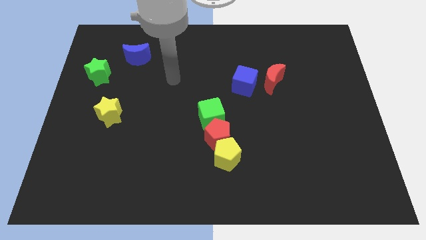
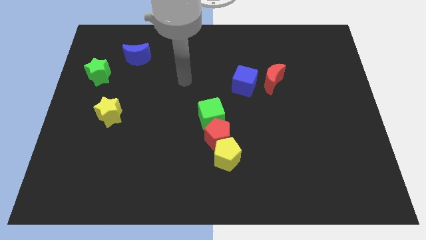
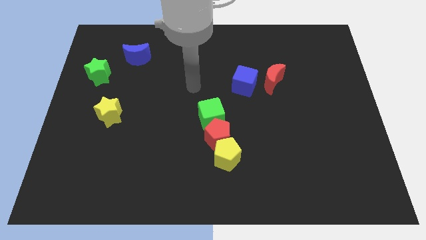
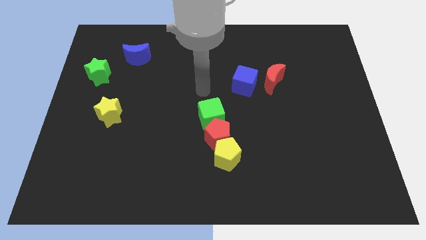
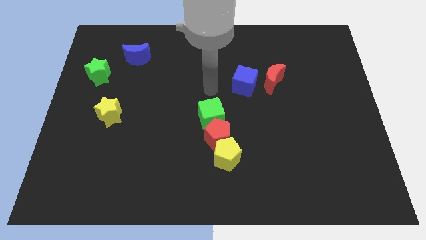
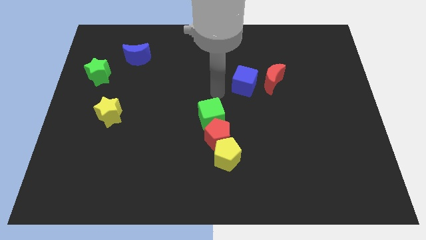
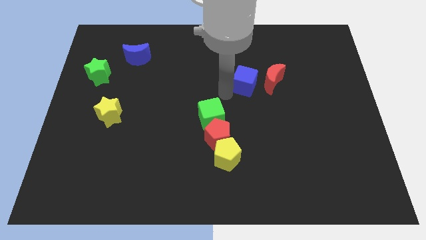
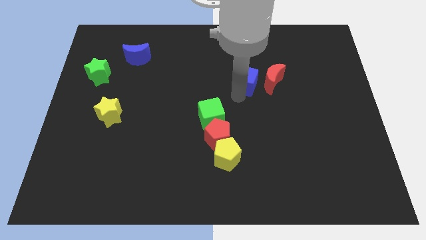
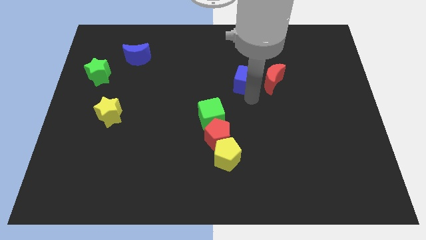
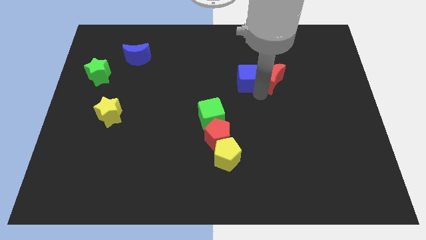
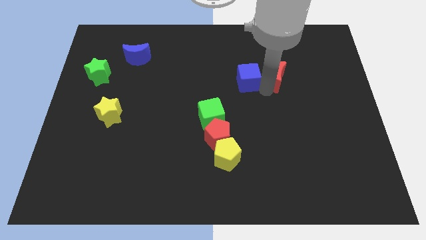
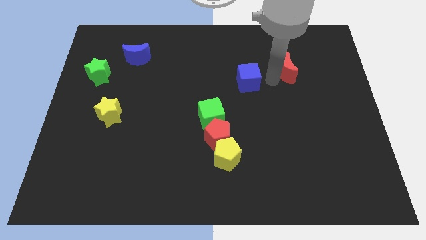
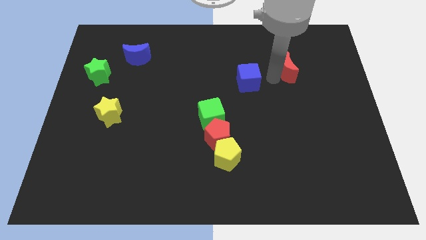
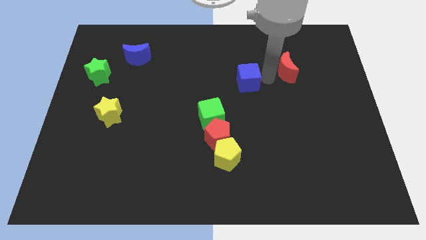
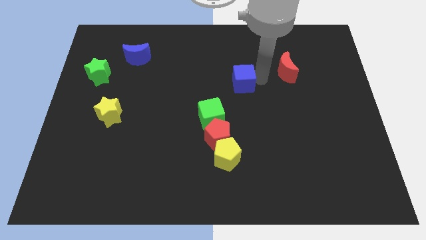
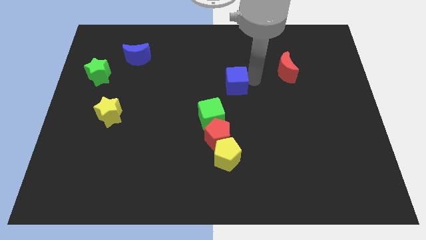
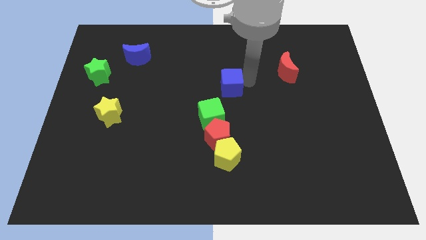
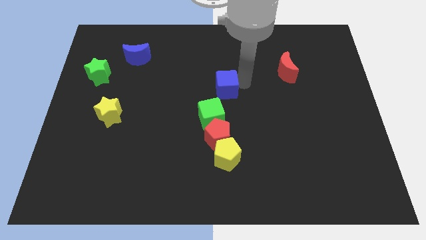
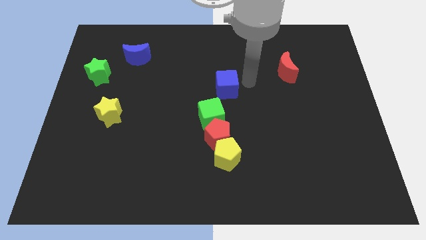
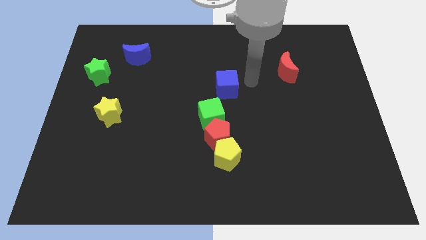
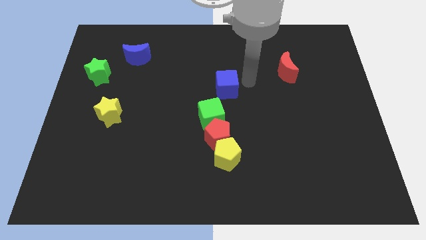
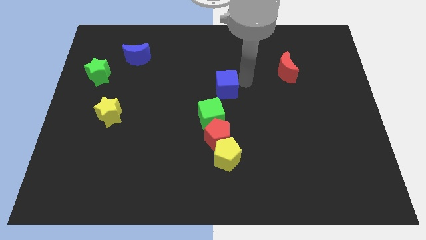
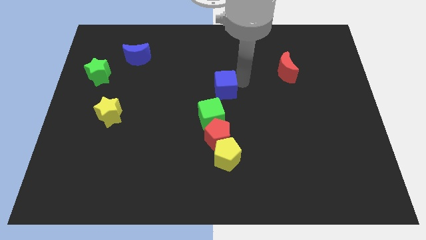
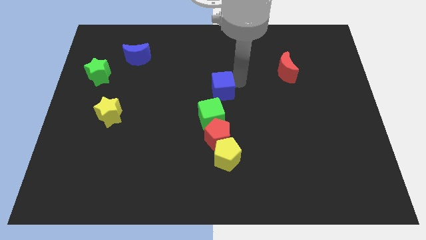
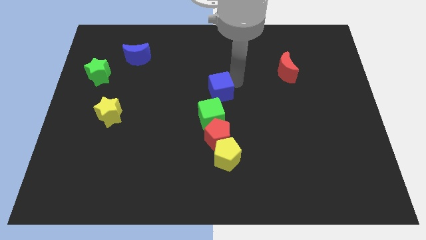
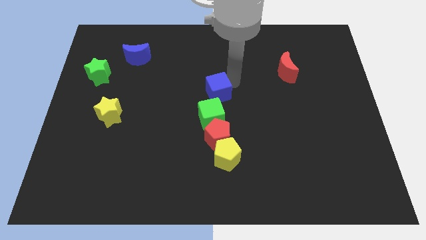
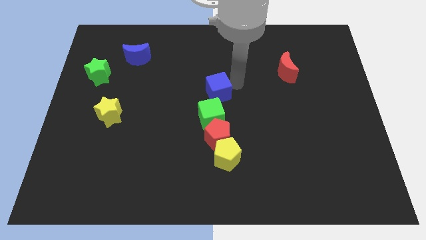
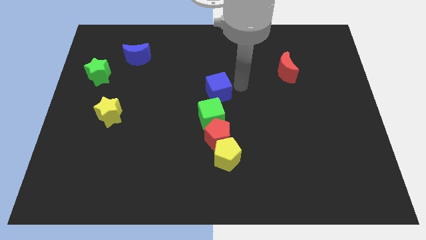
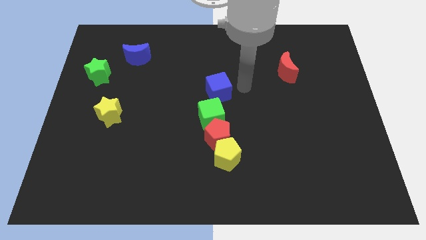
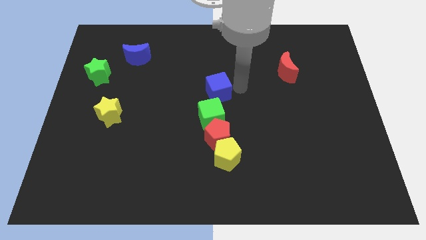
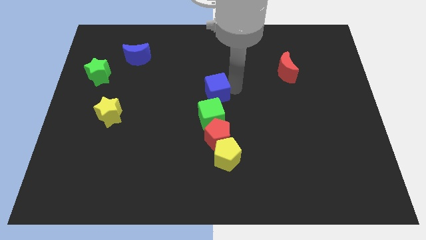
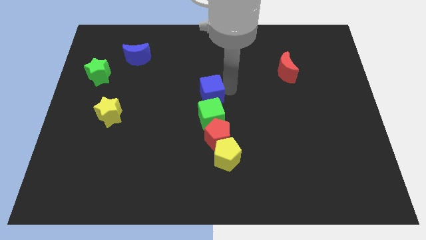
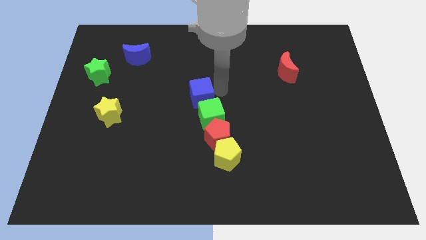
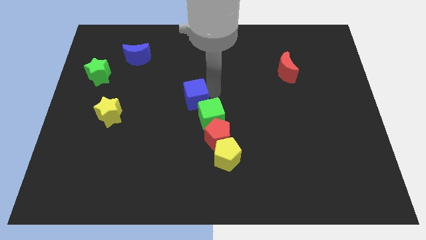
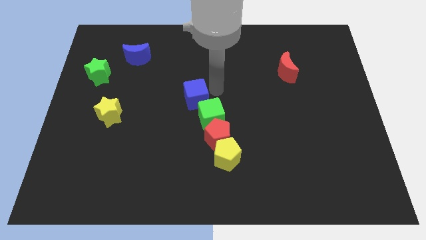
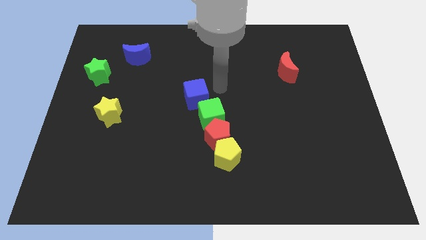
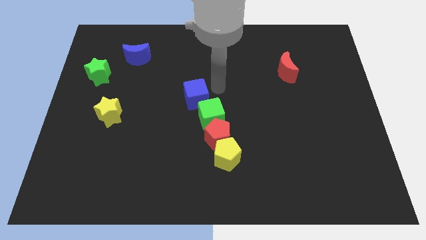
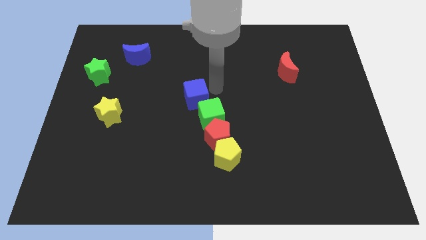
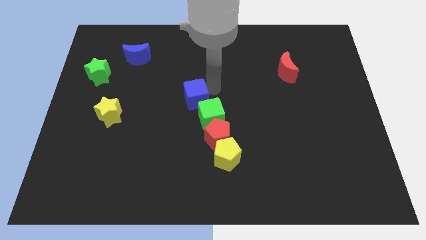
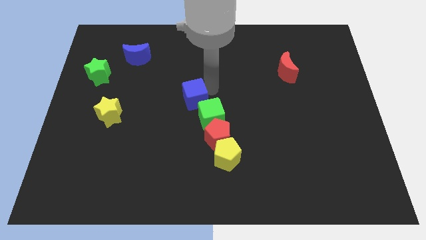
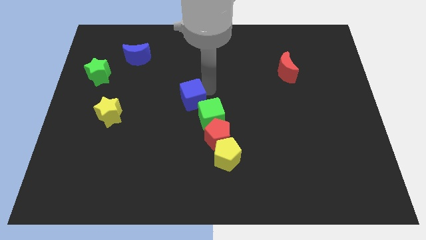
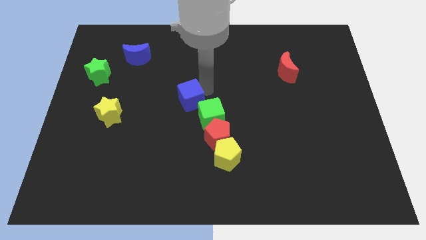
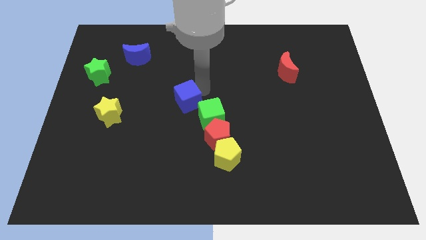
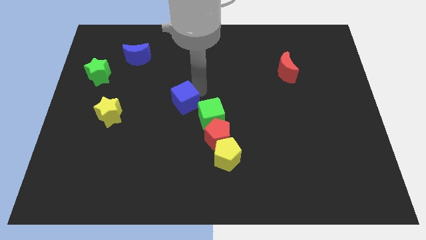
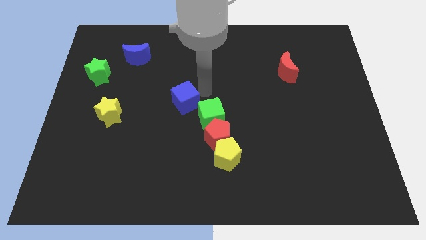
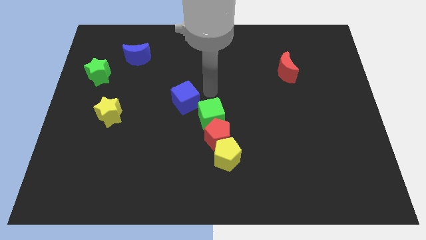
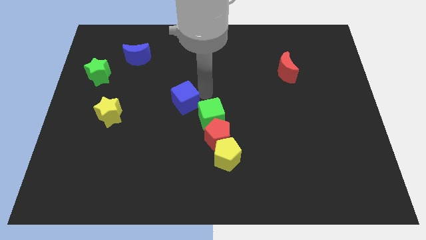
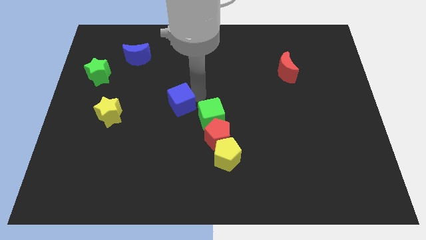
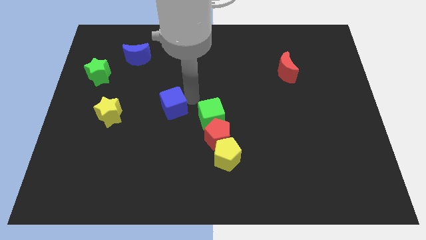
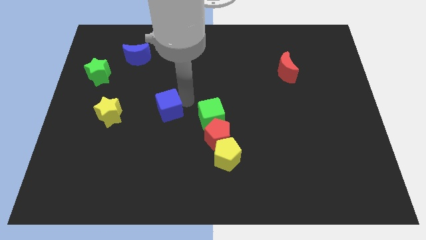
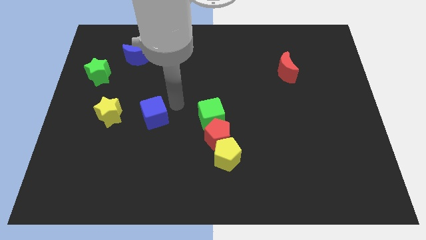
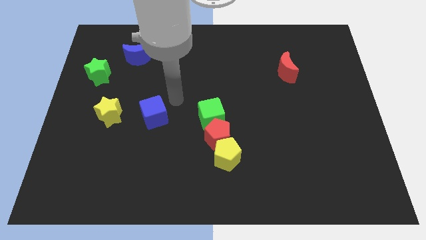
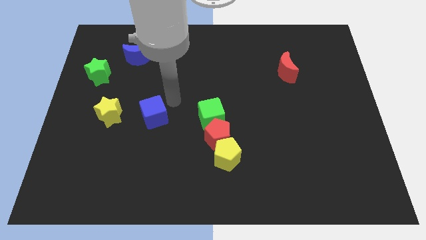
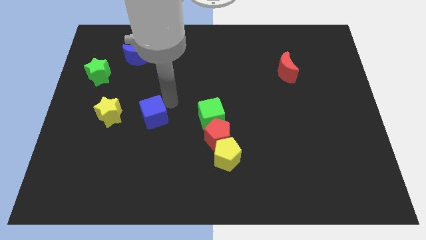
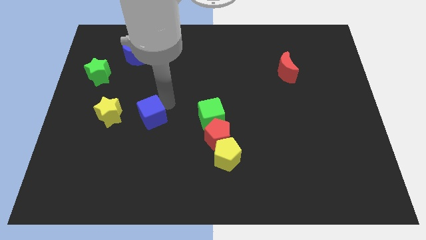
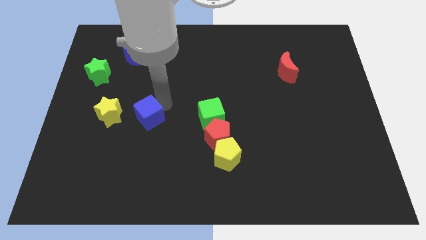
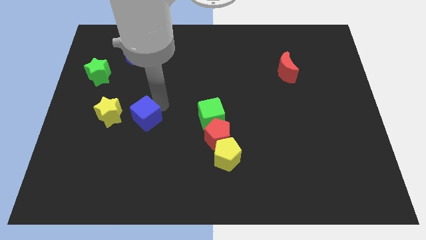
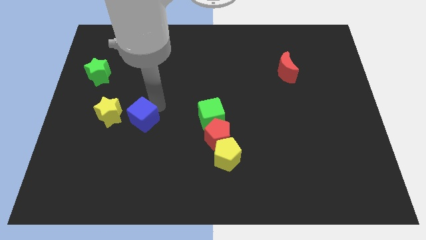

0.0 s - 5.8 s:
move the blue cube to the bottom right of the yellow star

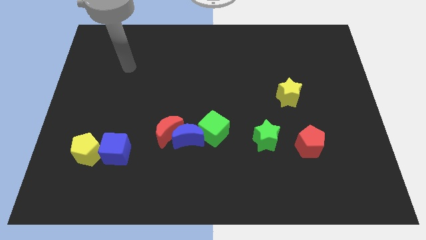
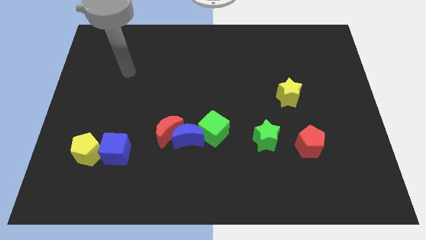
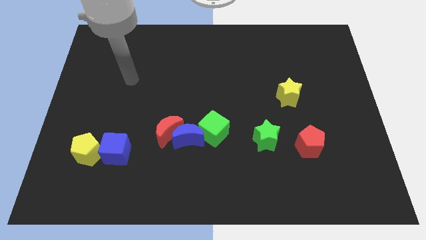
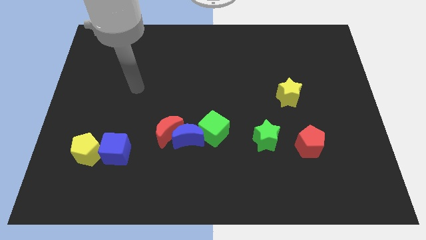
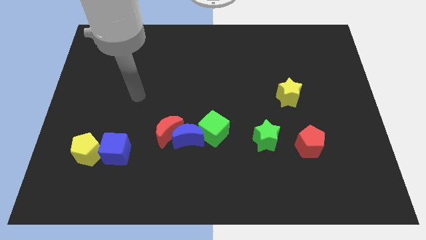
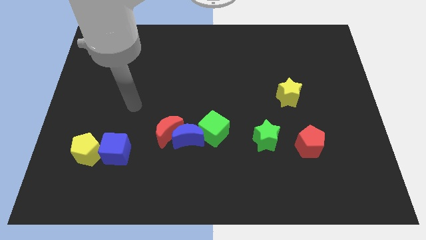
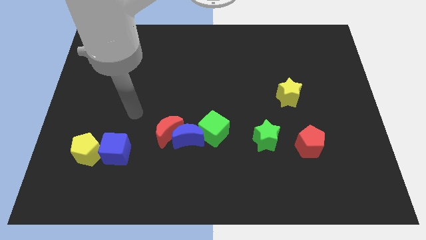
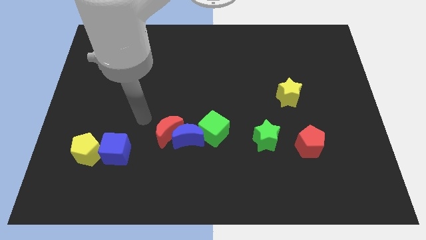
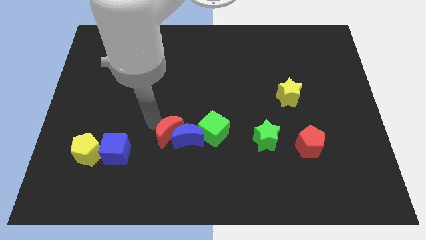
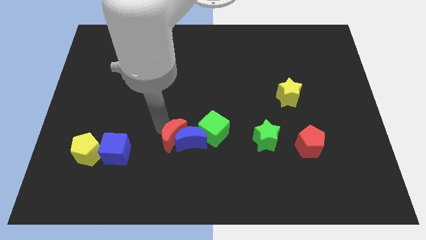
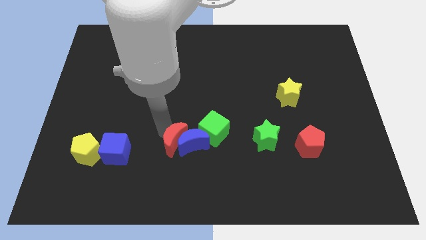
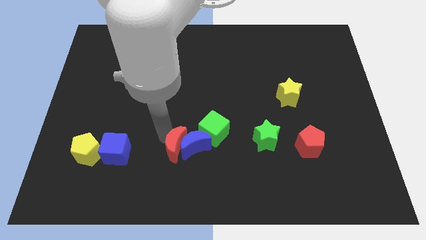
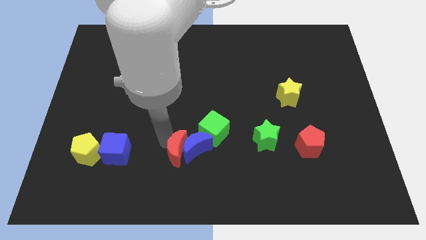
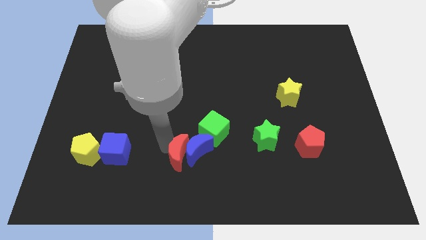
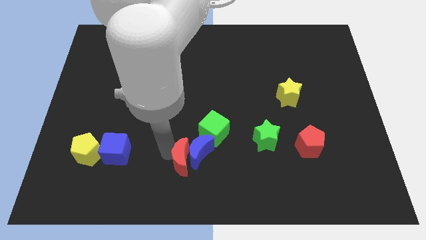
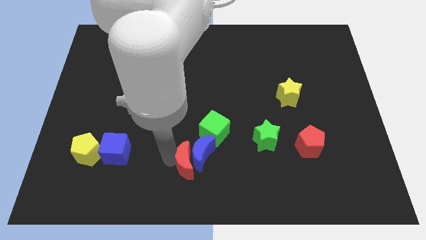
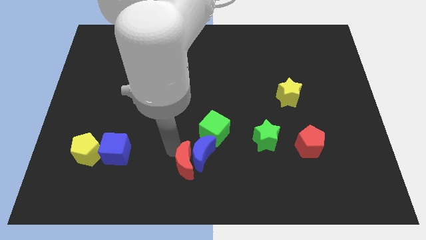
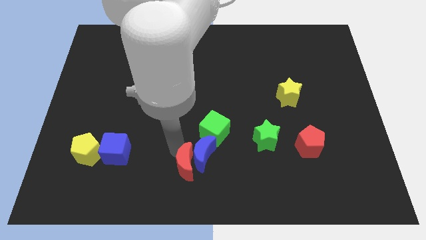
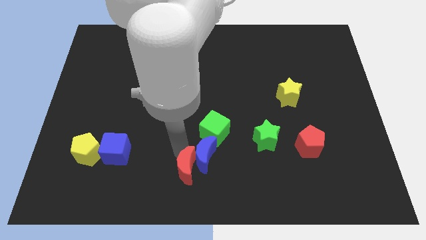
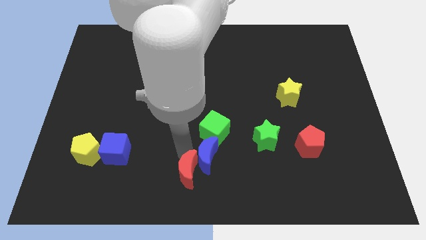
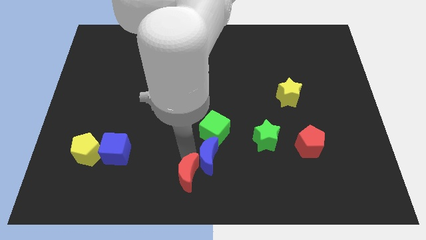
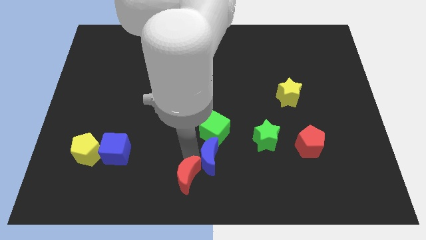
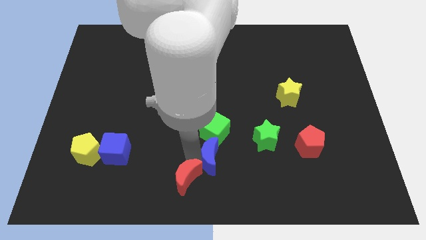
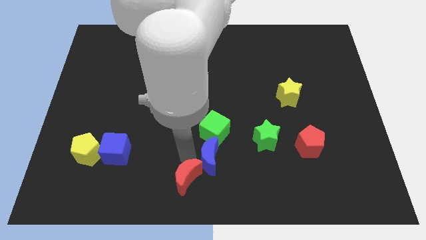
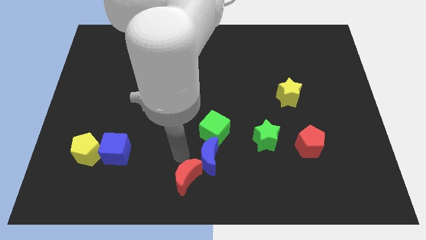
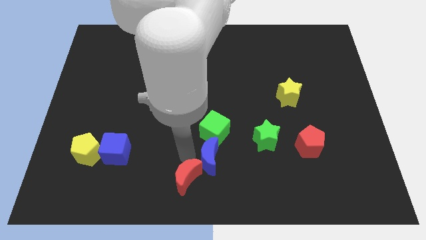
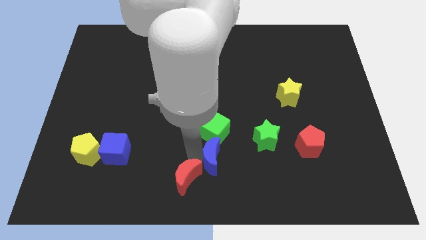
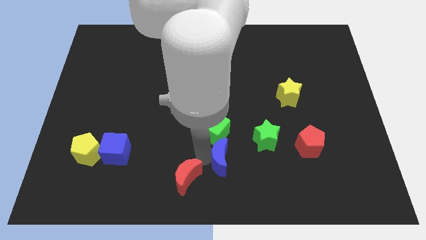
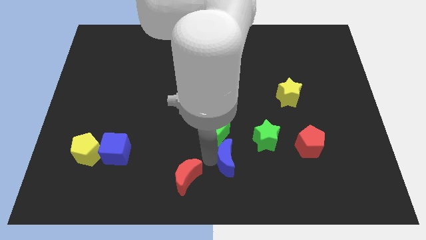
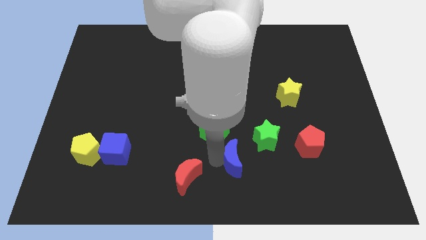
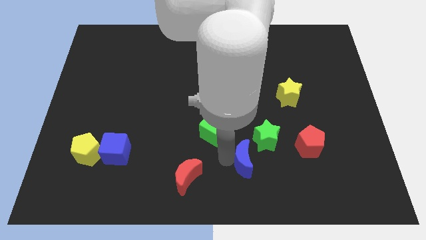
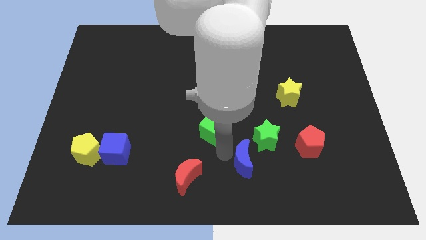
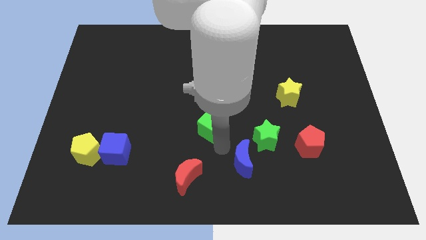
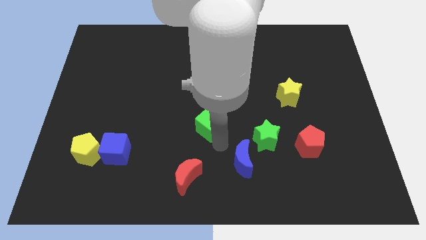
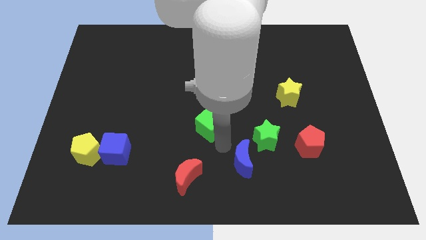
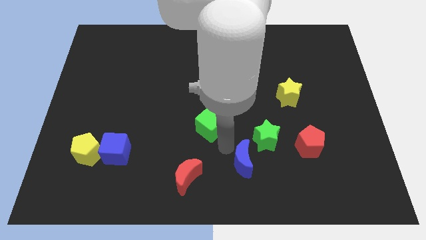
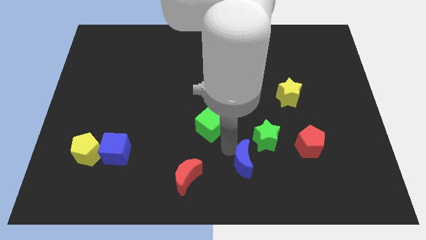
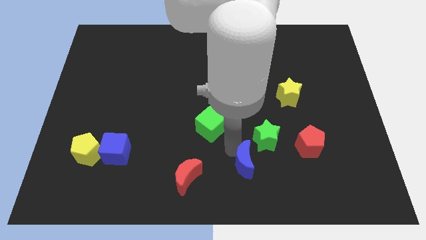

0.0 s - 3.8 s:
push the blue moon to the bottom of the green star
